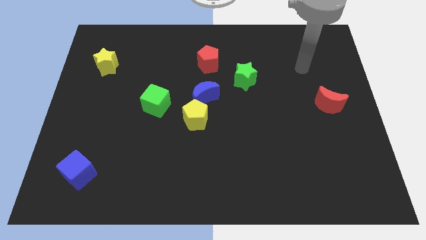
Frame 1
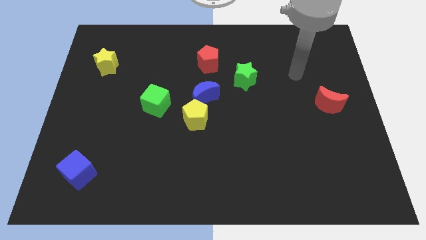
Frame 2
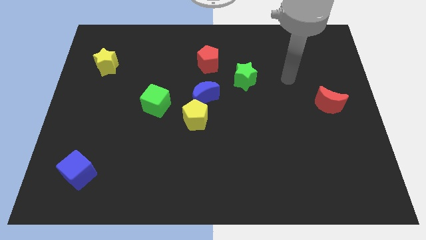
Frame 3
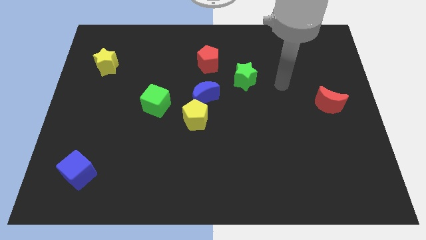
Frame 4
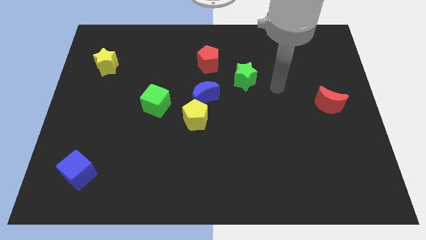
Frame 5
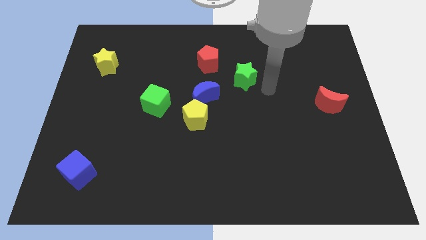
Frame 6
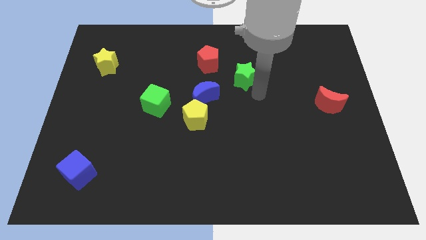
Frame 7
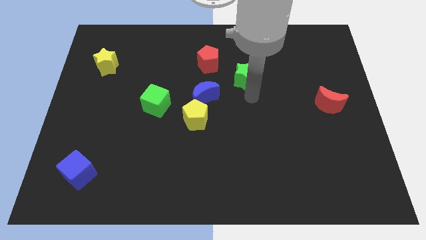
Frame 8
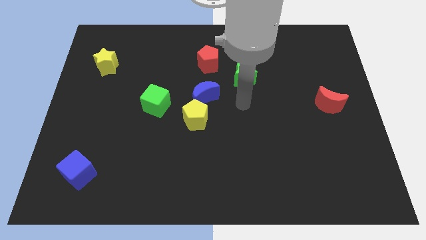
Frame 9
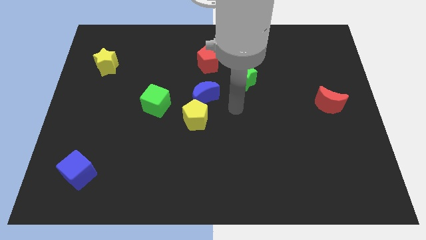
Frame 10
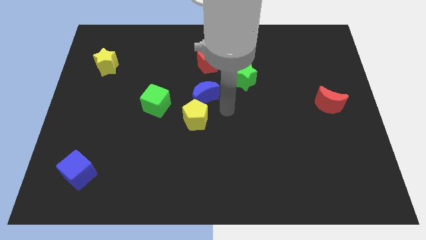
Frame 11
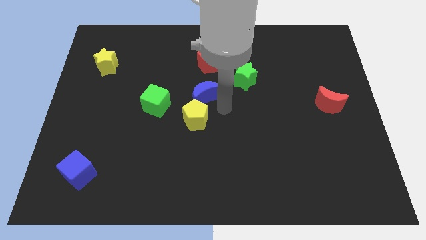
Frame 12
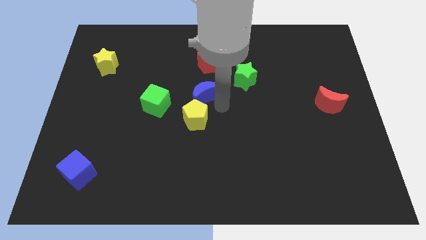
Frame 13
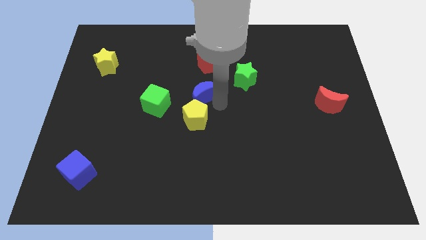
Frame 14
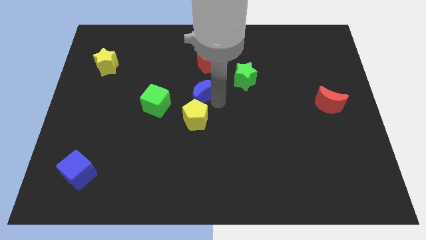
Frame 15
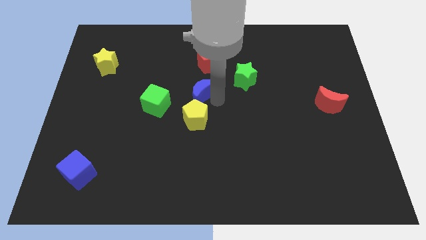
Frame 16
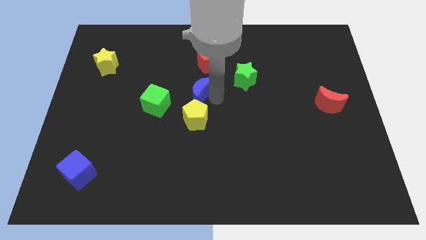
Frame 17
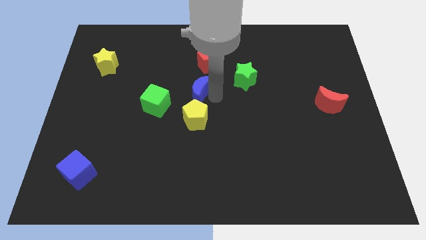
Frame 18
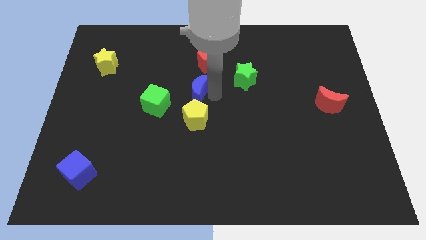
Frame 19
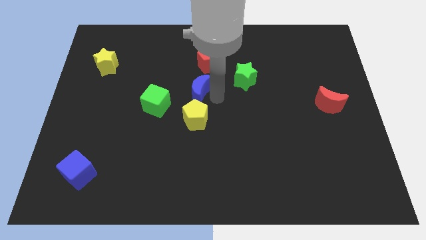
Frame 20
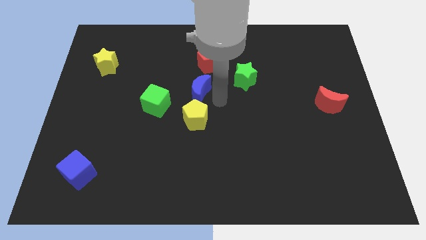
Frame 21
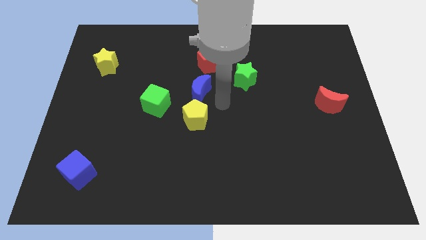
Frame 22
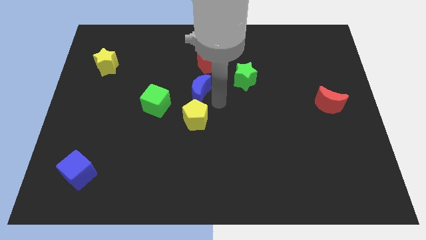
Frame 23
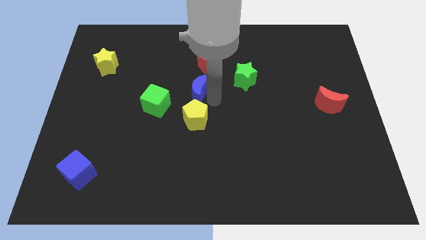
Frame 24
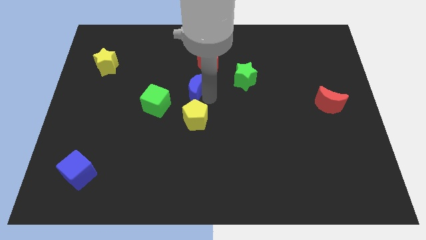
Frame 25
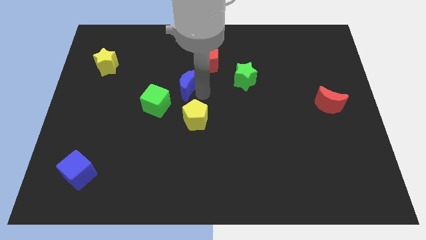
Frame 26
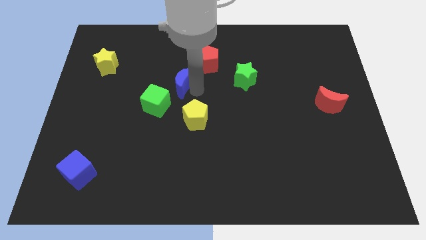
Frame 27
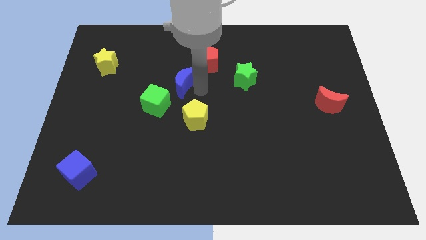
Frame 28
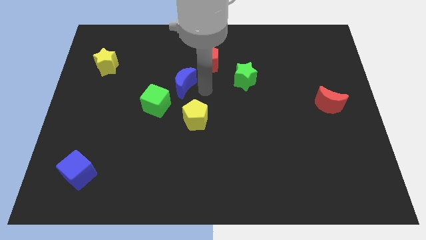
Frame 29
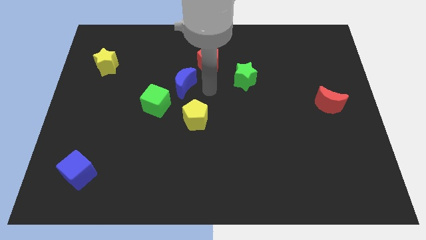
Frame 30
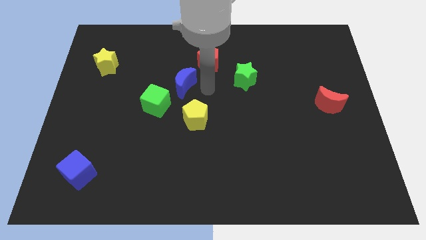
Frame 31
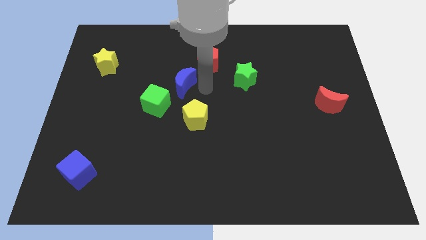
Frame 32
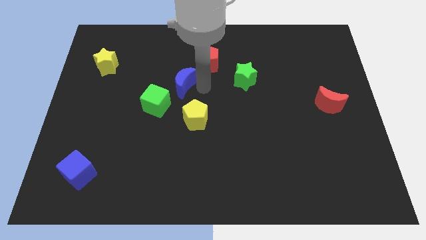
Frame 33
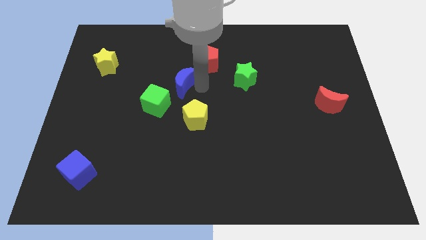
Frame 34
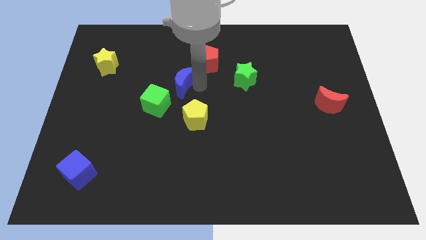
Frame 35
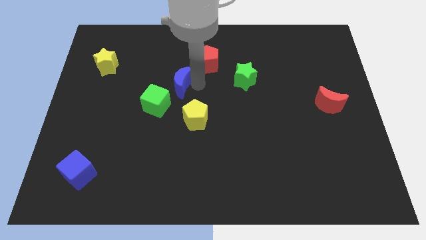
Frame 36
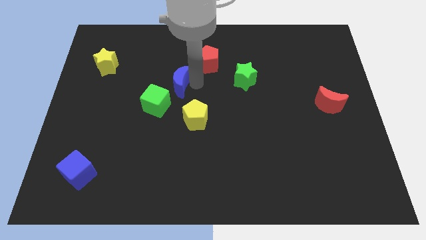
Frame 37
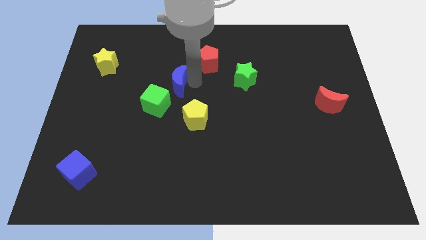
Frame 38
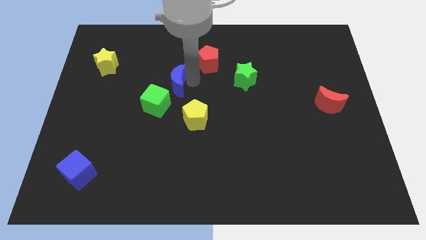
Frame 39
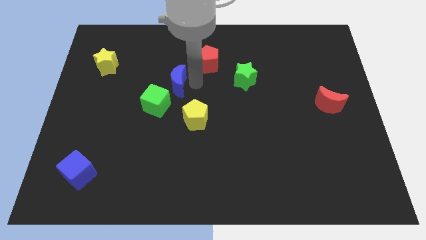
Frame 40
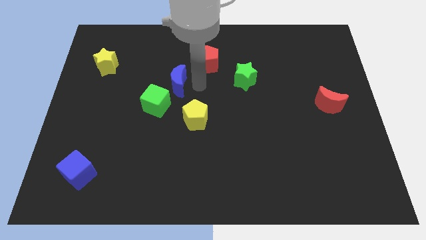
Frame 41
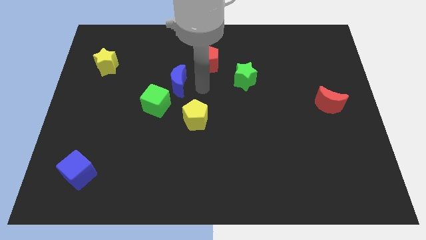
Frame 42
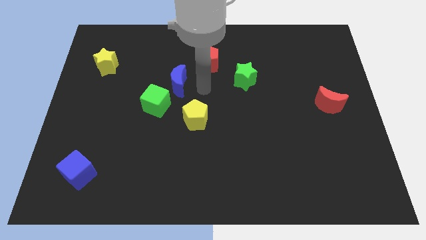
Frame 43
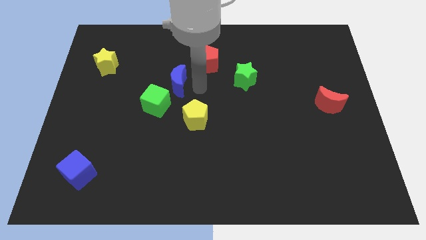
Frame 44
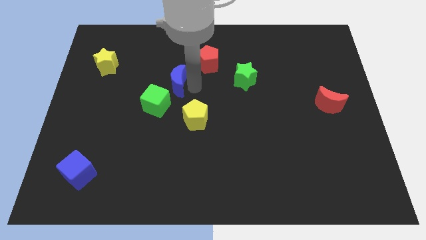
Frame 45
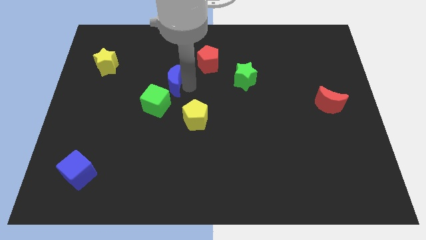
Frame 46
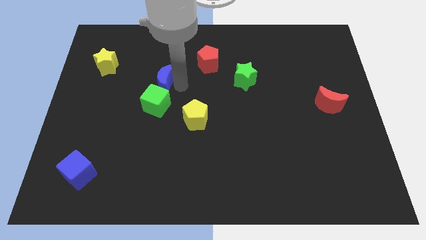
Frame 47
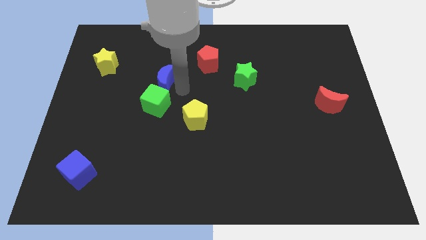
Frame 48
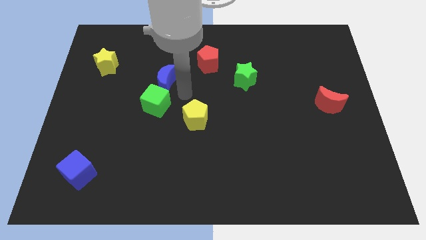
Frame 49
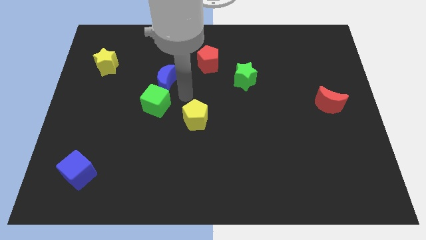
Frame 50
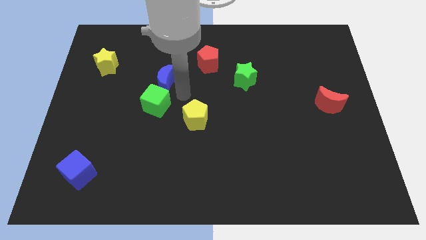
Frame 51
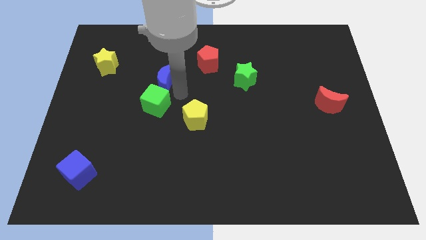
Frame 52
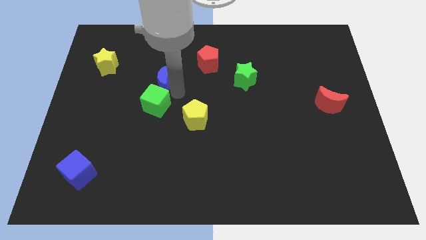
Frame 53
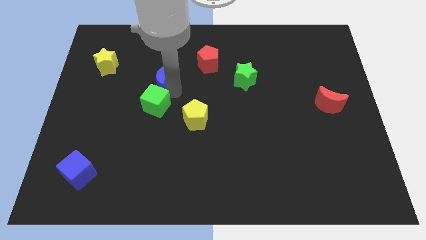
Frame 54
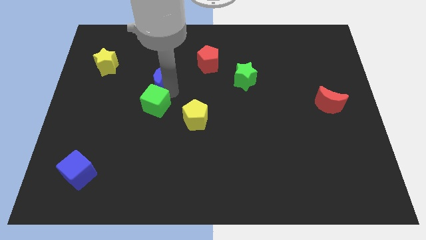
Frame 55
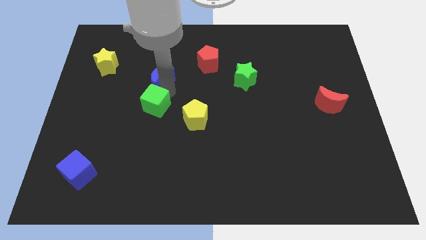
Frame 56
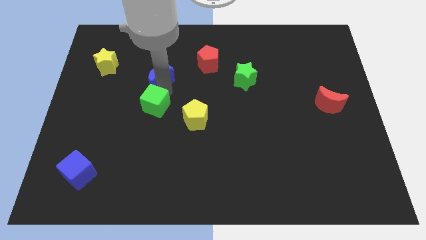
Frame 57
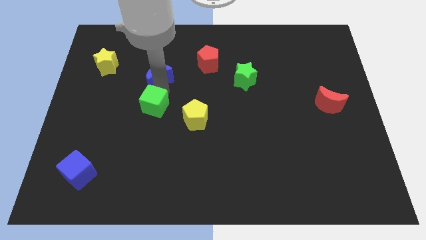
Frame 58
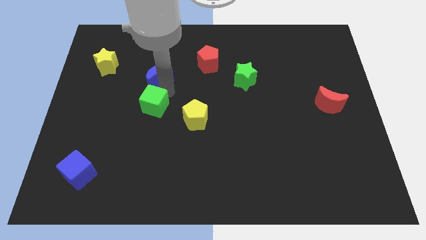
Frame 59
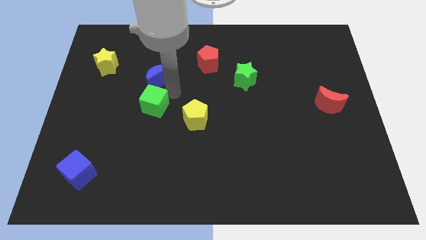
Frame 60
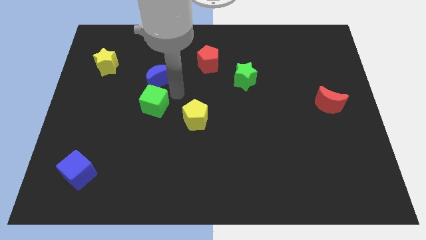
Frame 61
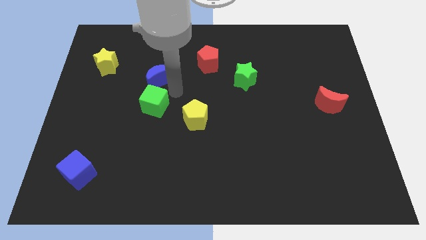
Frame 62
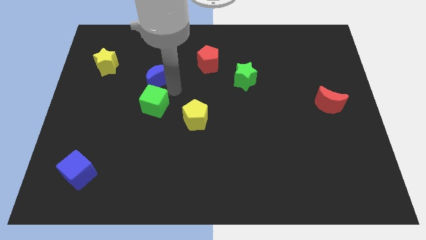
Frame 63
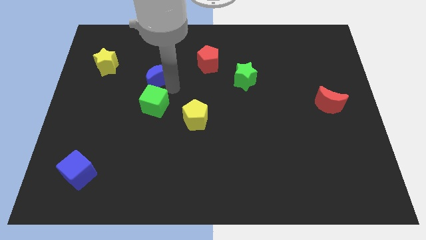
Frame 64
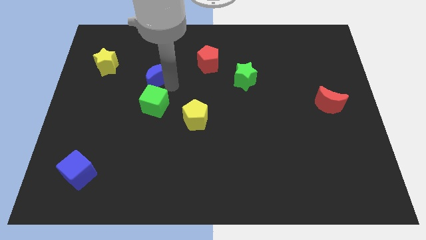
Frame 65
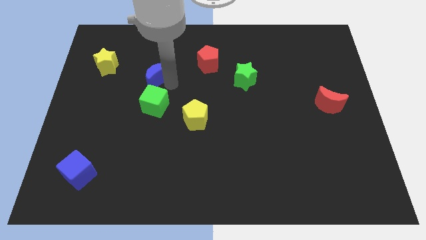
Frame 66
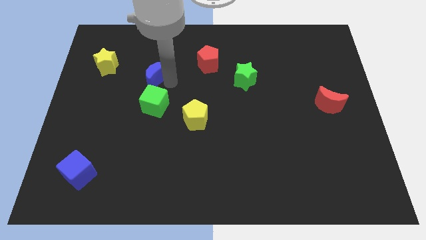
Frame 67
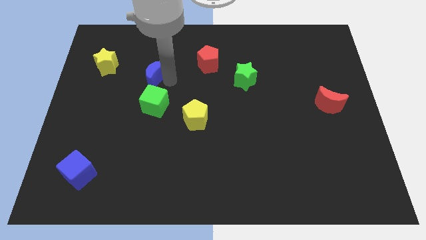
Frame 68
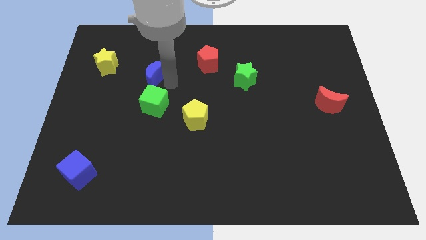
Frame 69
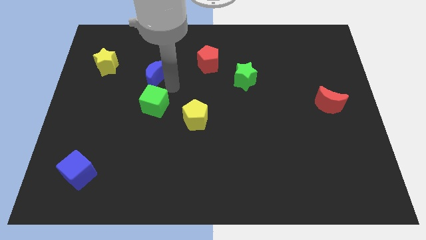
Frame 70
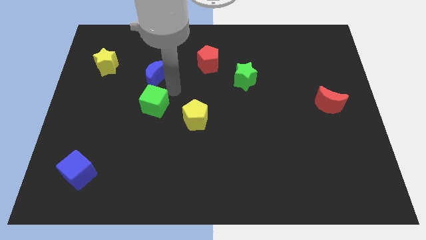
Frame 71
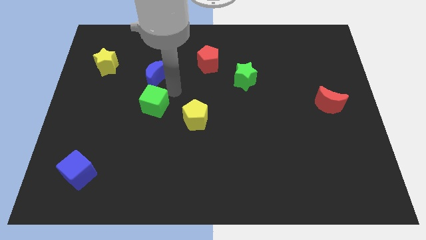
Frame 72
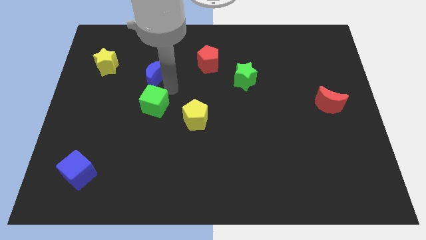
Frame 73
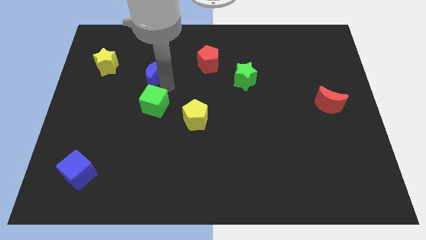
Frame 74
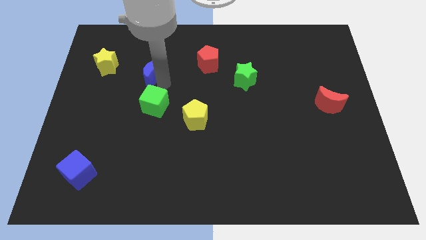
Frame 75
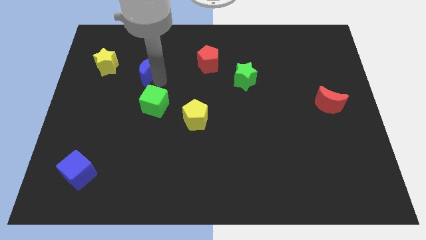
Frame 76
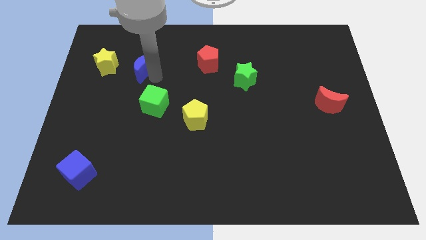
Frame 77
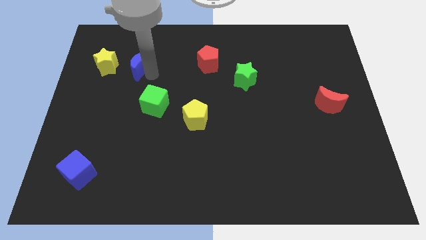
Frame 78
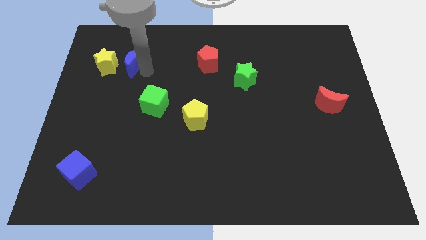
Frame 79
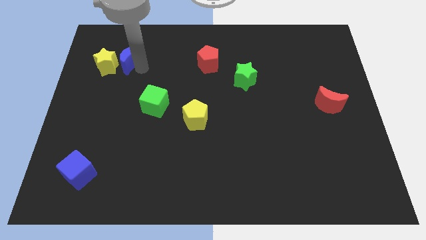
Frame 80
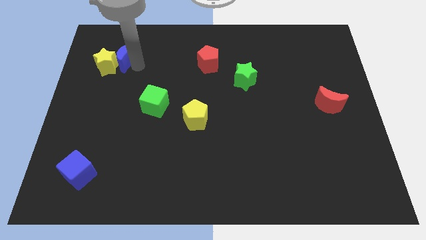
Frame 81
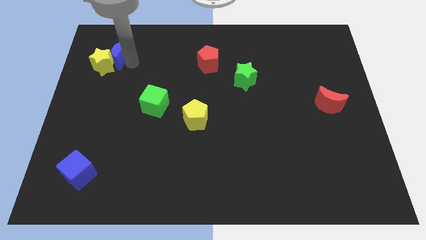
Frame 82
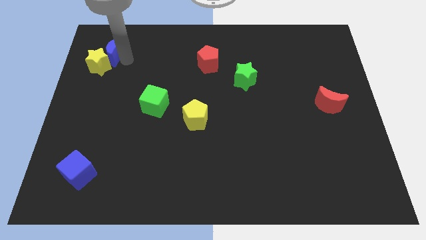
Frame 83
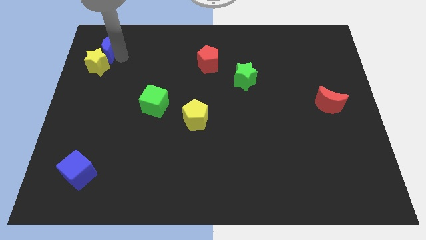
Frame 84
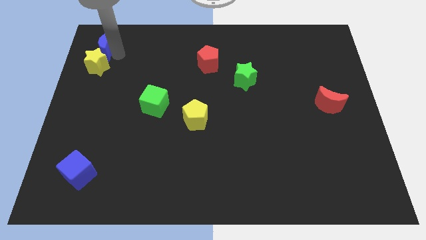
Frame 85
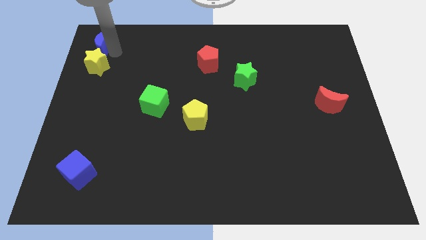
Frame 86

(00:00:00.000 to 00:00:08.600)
push the blue moon to the top left of the board
